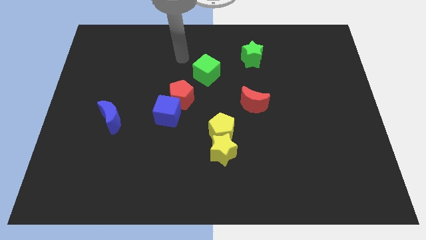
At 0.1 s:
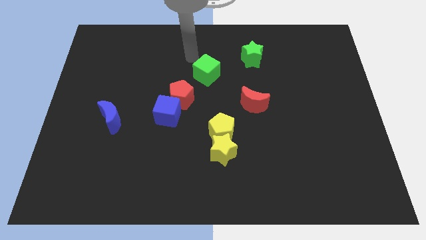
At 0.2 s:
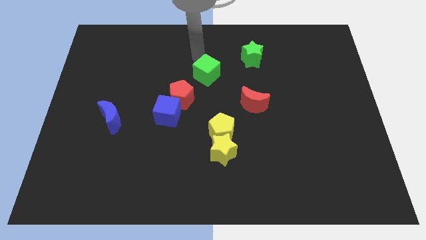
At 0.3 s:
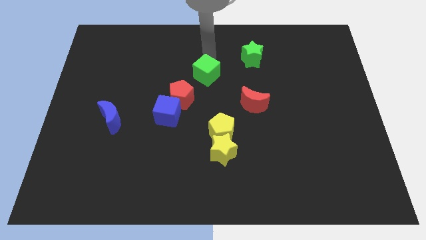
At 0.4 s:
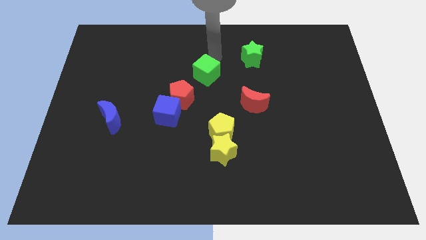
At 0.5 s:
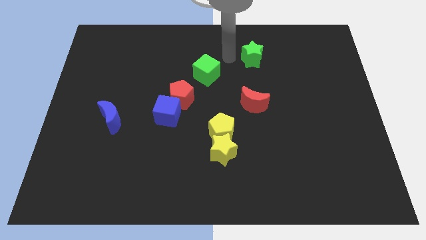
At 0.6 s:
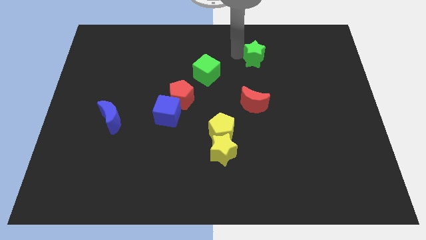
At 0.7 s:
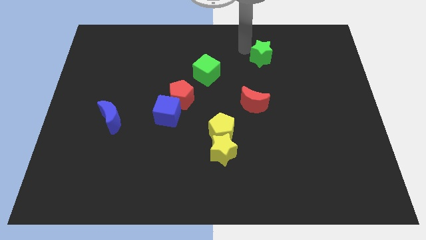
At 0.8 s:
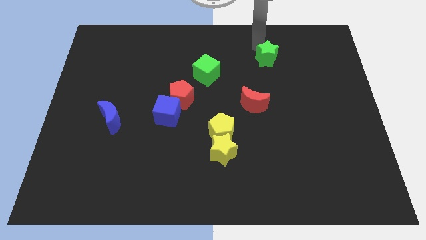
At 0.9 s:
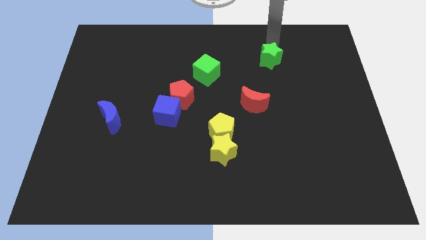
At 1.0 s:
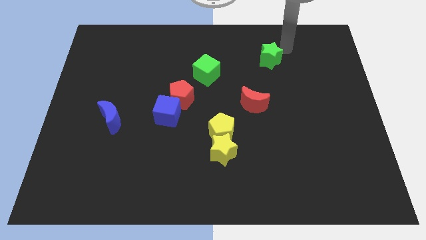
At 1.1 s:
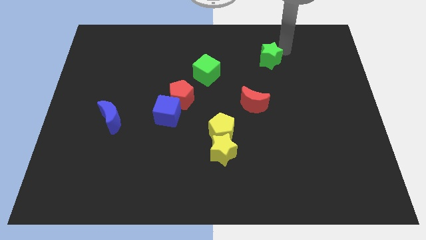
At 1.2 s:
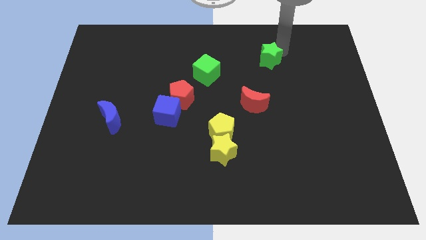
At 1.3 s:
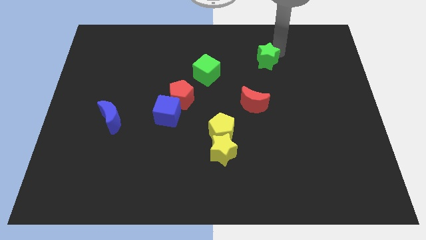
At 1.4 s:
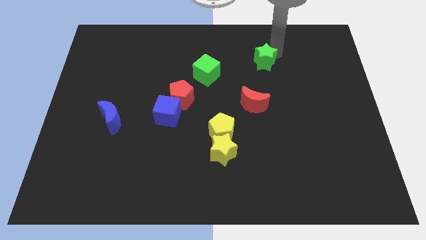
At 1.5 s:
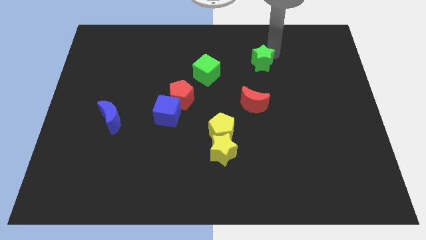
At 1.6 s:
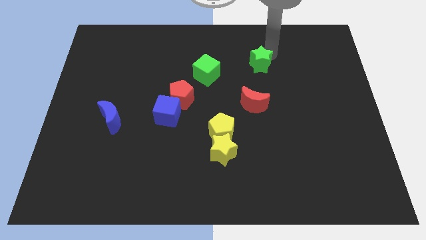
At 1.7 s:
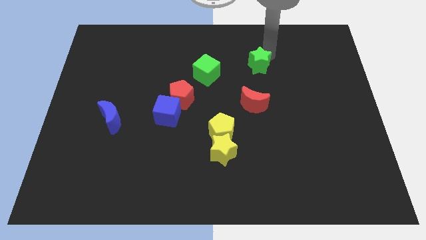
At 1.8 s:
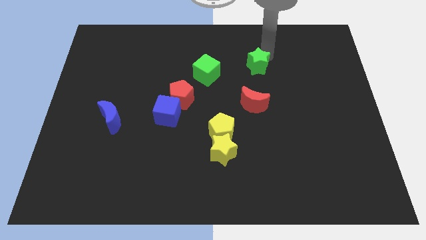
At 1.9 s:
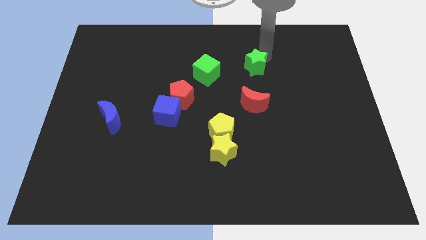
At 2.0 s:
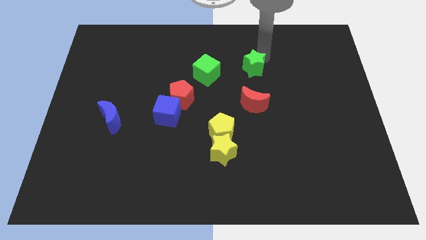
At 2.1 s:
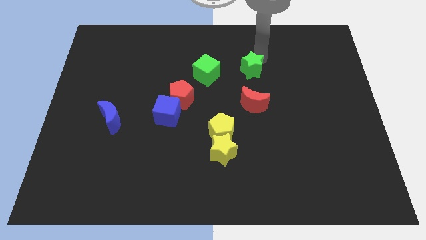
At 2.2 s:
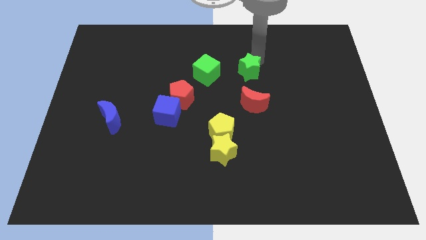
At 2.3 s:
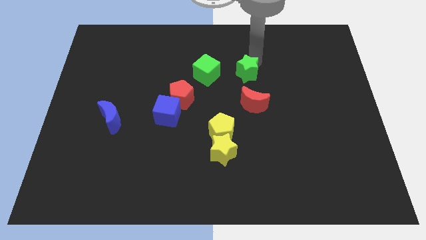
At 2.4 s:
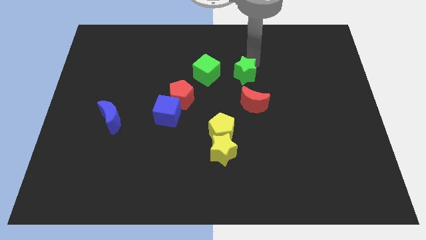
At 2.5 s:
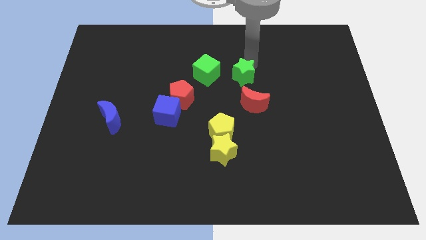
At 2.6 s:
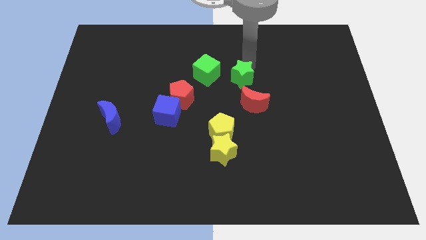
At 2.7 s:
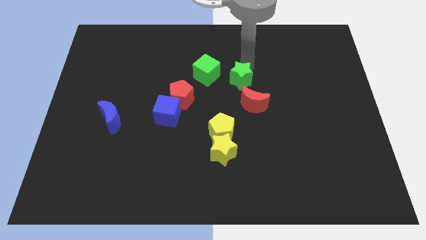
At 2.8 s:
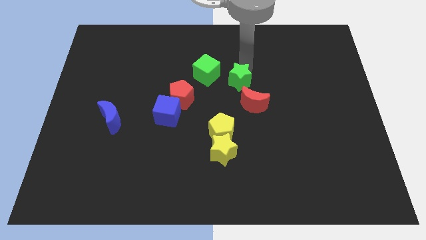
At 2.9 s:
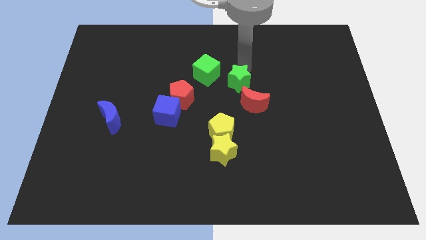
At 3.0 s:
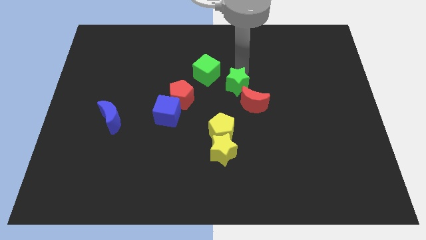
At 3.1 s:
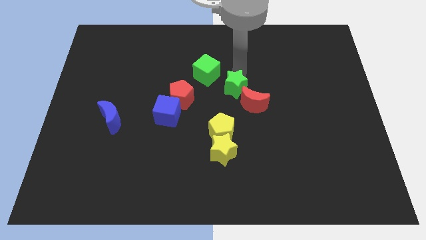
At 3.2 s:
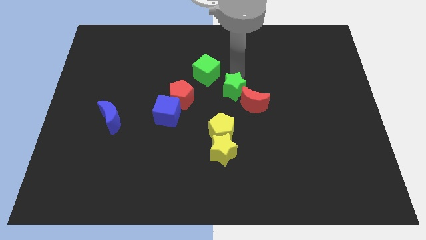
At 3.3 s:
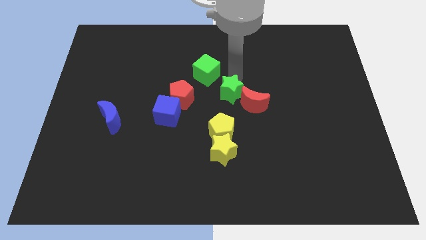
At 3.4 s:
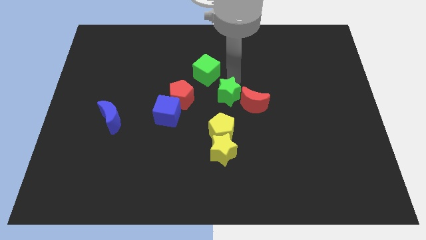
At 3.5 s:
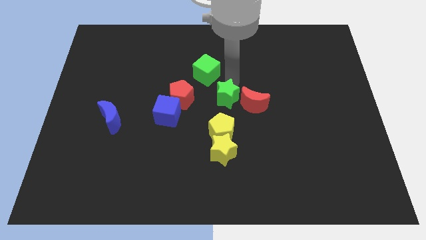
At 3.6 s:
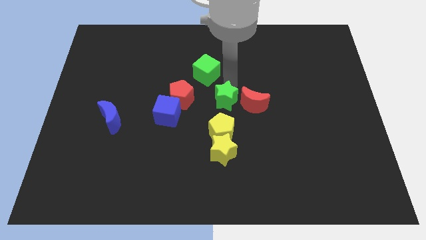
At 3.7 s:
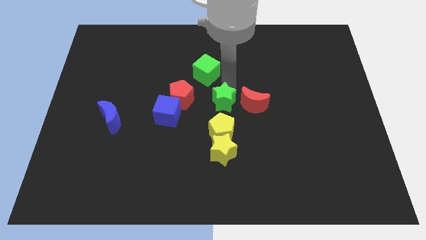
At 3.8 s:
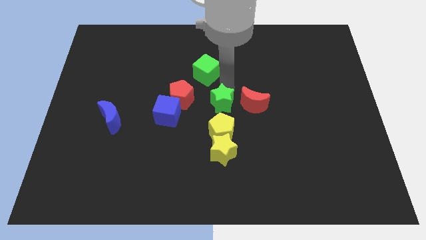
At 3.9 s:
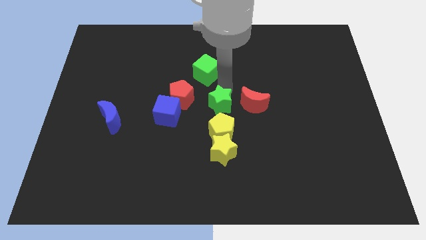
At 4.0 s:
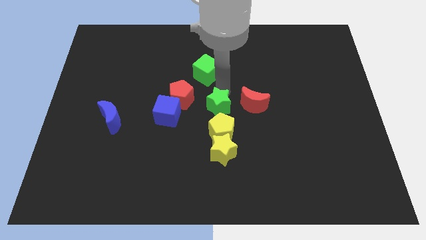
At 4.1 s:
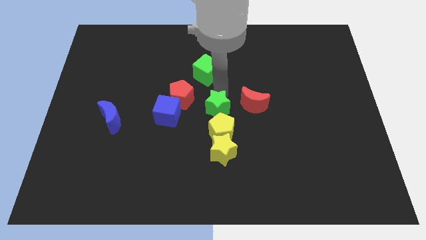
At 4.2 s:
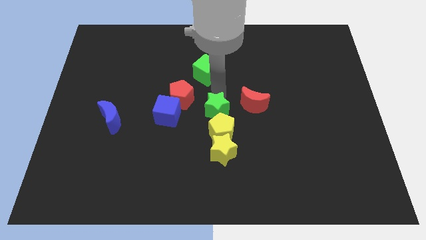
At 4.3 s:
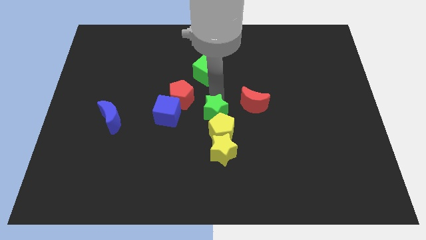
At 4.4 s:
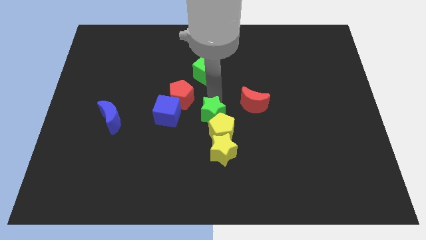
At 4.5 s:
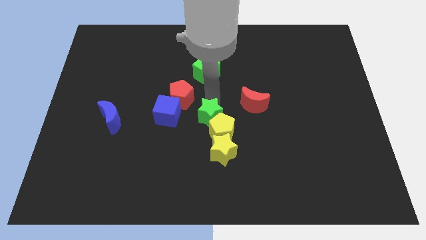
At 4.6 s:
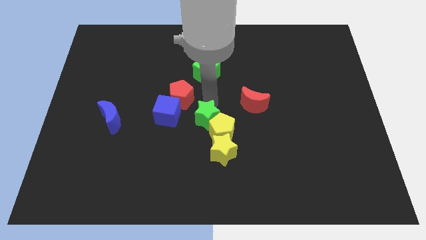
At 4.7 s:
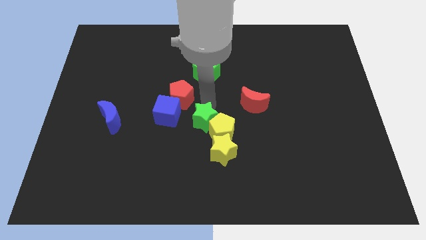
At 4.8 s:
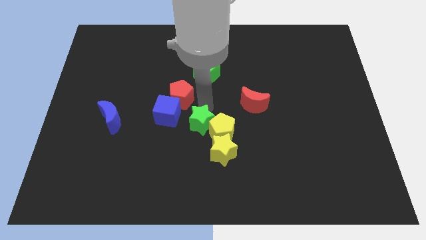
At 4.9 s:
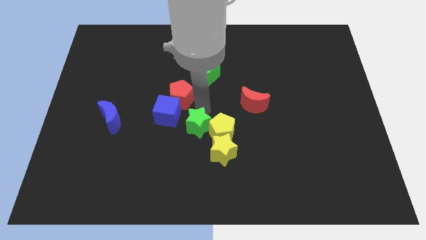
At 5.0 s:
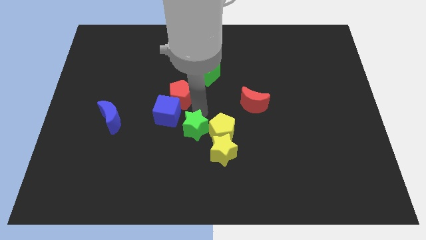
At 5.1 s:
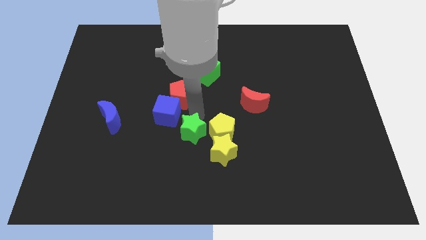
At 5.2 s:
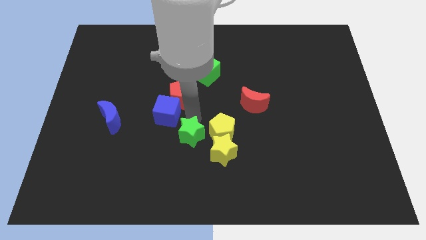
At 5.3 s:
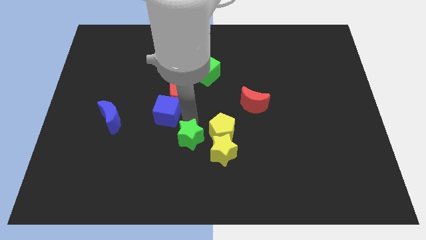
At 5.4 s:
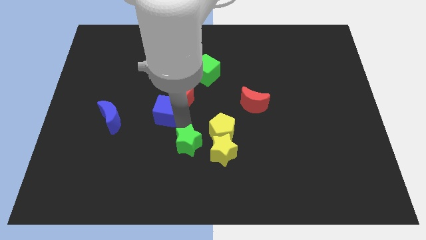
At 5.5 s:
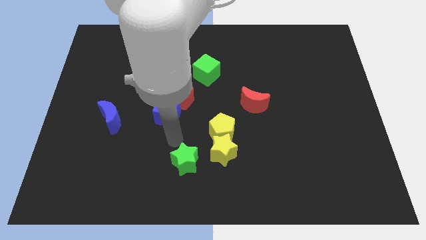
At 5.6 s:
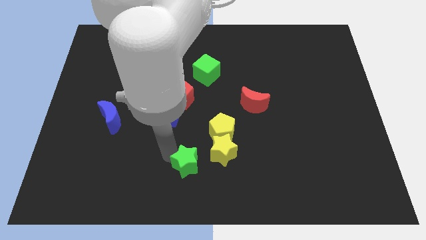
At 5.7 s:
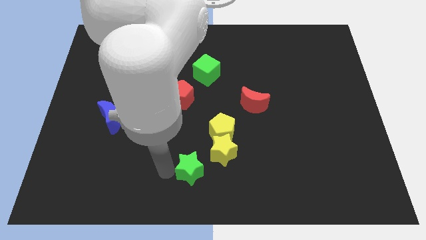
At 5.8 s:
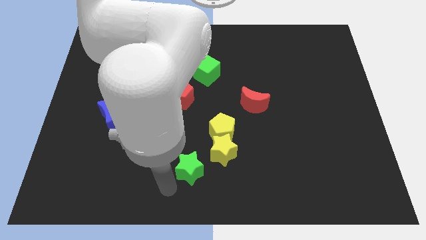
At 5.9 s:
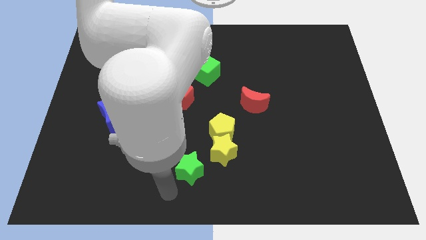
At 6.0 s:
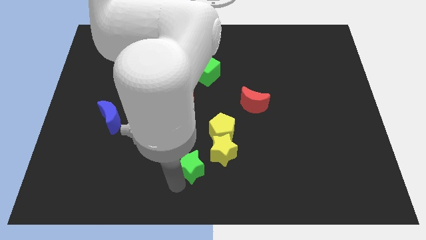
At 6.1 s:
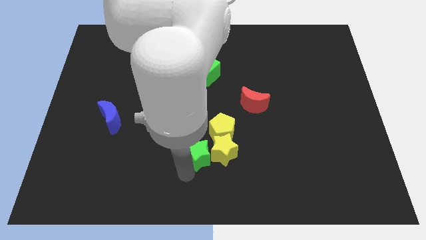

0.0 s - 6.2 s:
push the green star next to the yellow star

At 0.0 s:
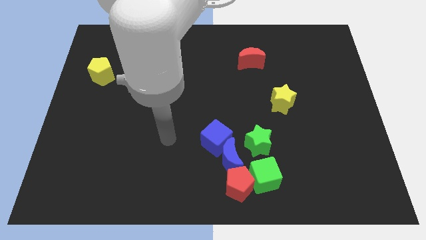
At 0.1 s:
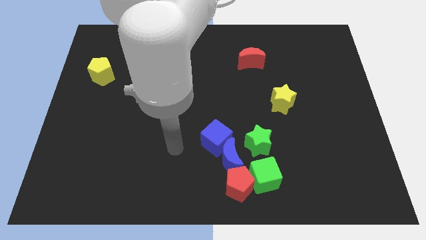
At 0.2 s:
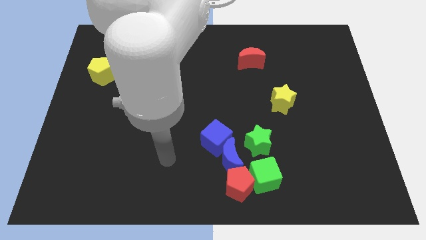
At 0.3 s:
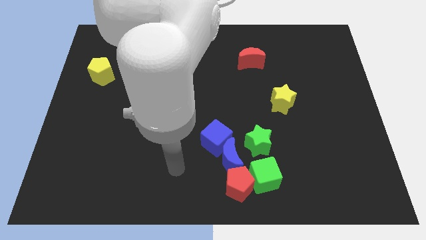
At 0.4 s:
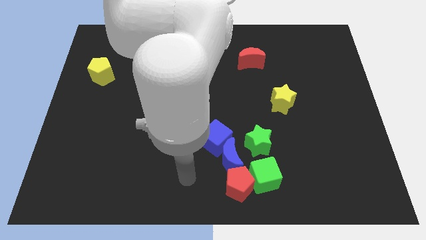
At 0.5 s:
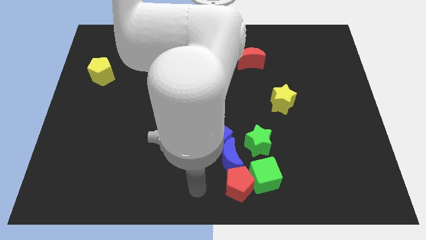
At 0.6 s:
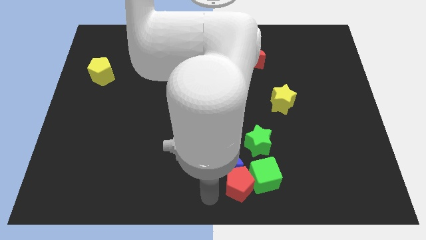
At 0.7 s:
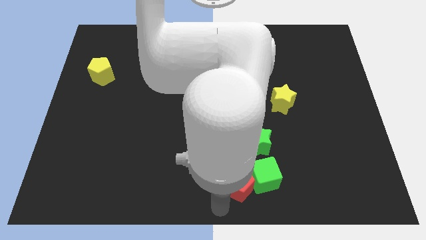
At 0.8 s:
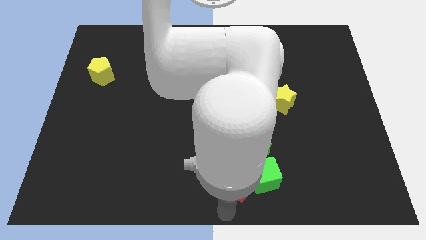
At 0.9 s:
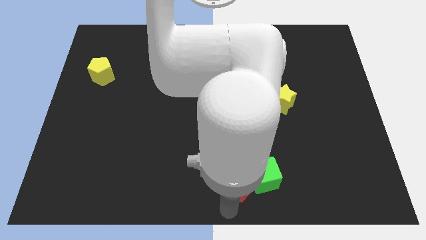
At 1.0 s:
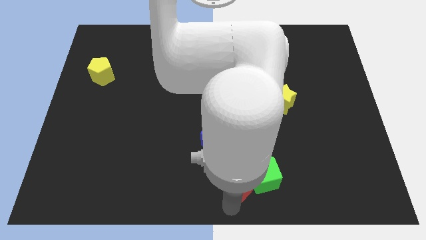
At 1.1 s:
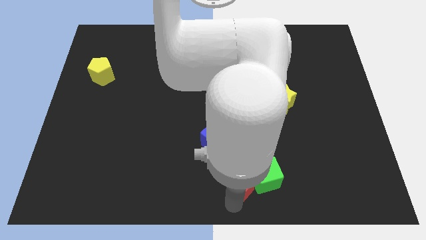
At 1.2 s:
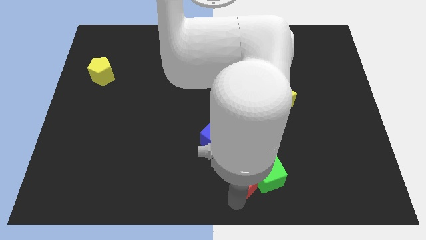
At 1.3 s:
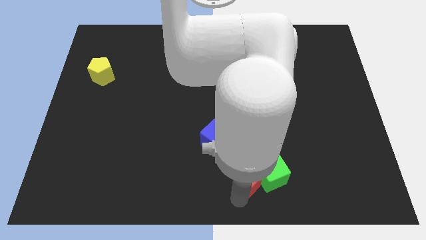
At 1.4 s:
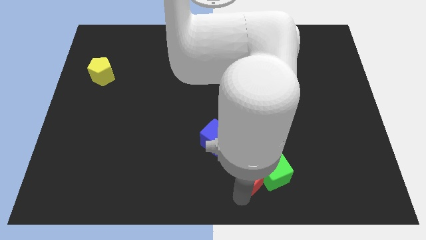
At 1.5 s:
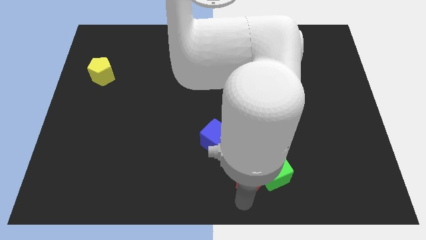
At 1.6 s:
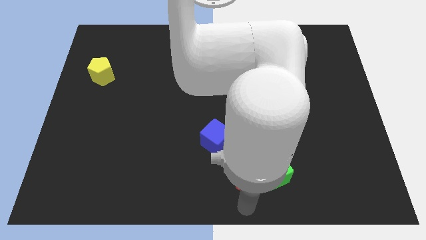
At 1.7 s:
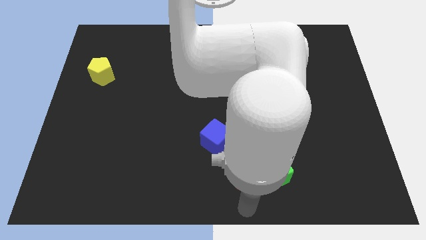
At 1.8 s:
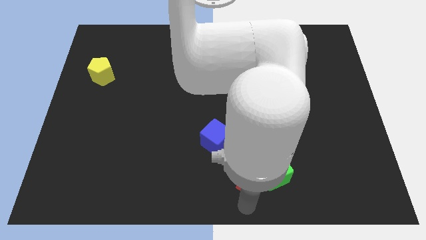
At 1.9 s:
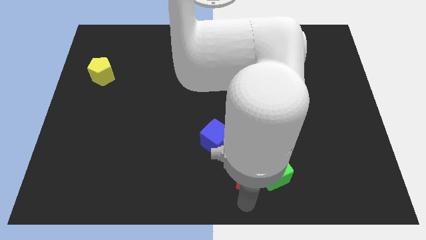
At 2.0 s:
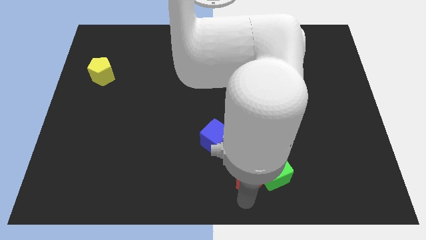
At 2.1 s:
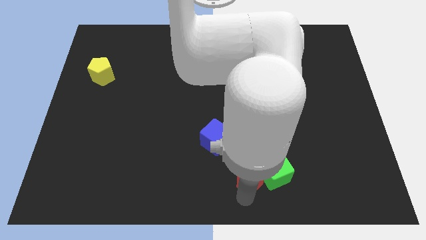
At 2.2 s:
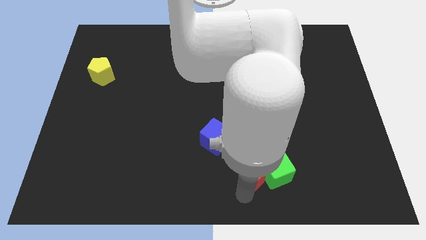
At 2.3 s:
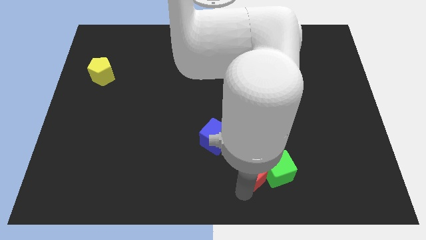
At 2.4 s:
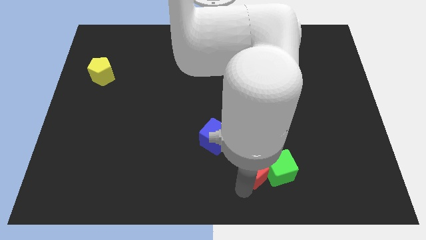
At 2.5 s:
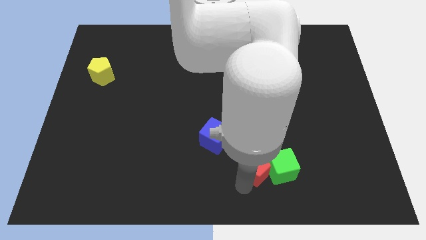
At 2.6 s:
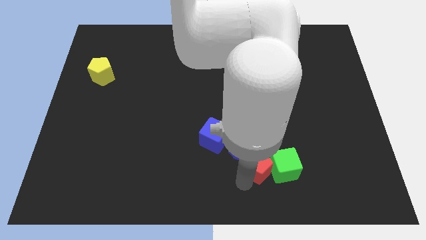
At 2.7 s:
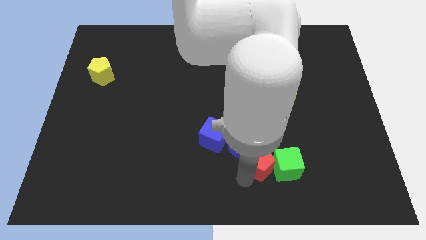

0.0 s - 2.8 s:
slide the red pentagon towards the green star
